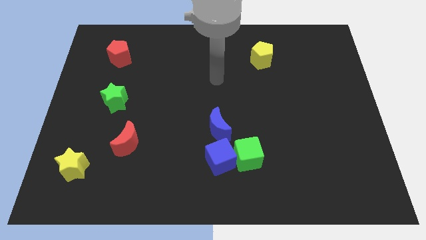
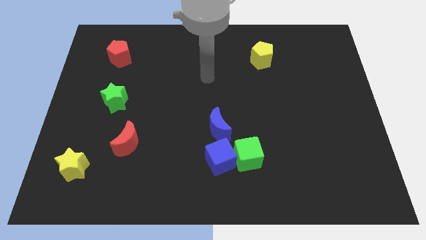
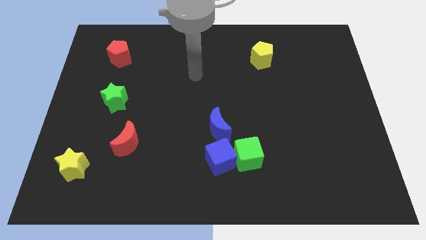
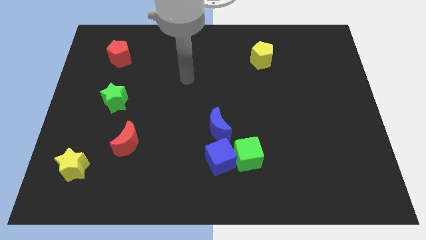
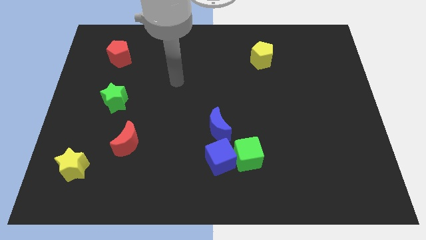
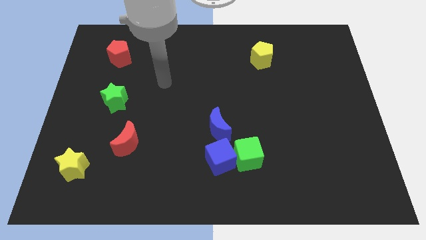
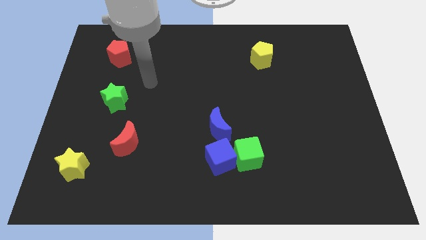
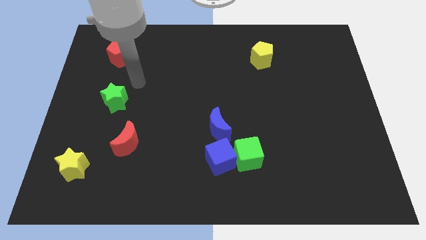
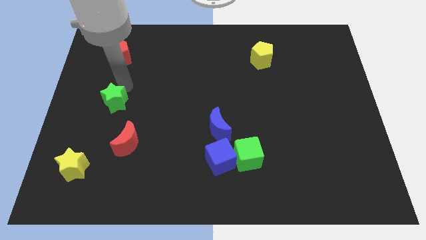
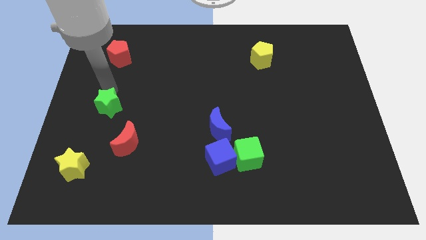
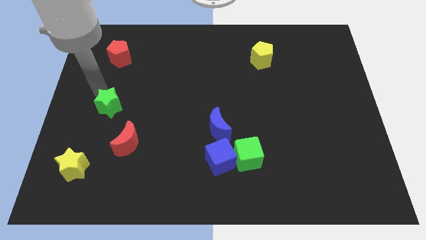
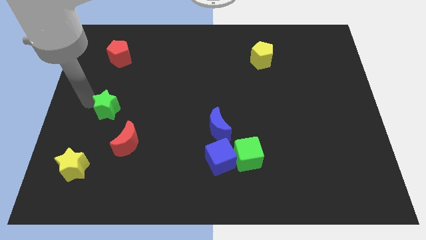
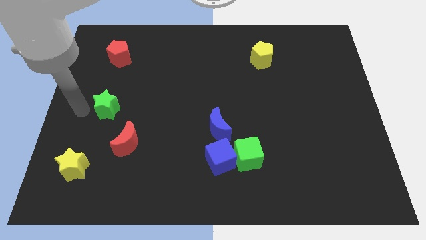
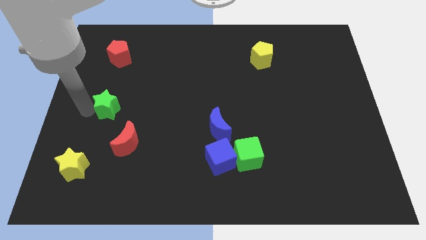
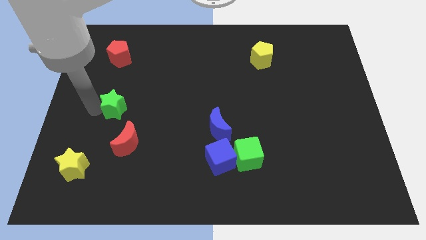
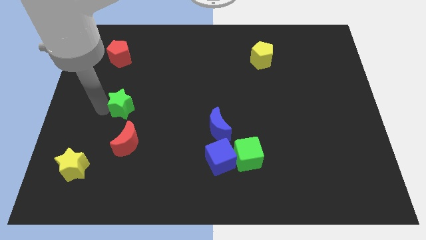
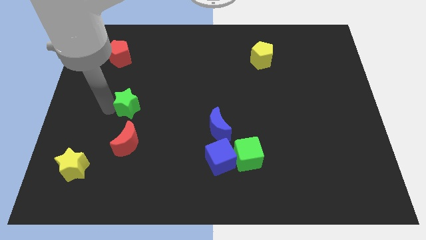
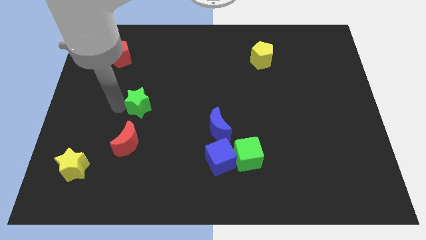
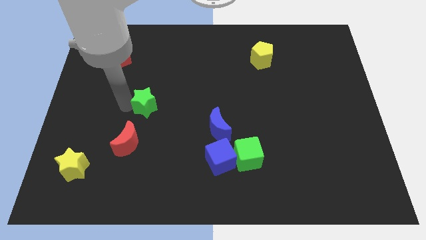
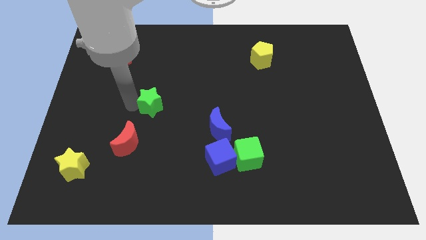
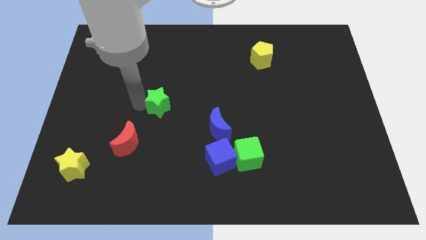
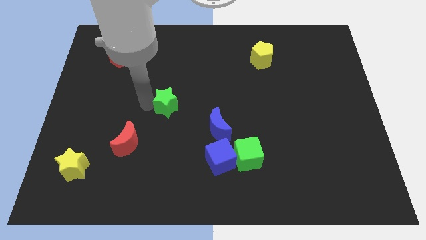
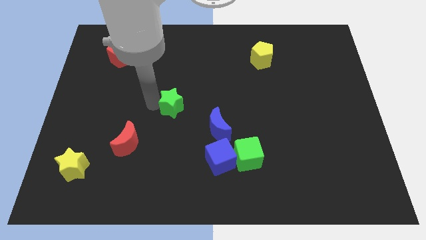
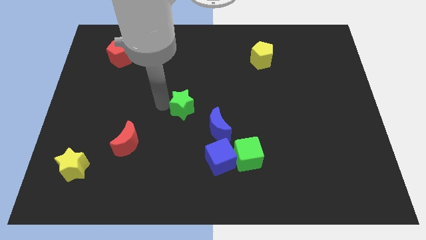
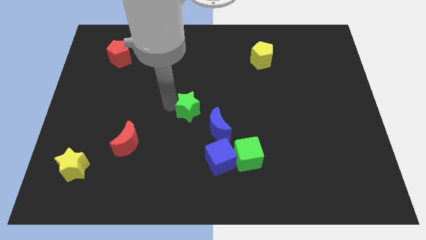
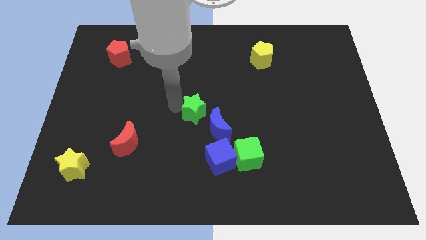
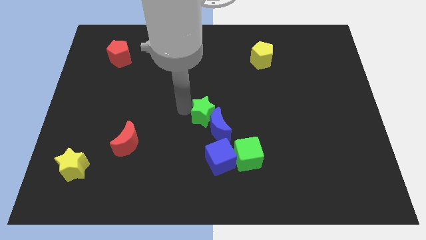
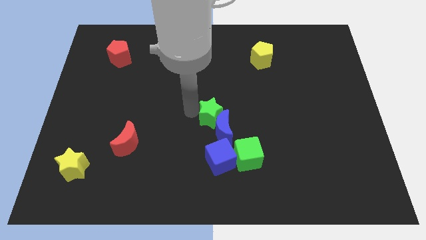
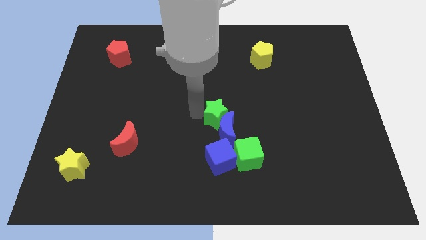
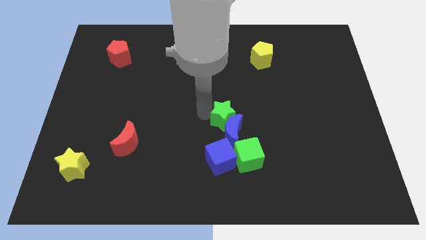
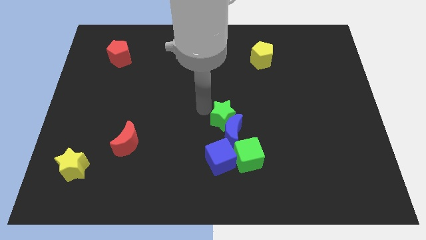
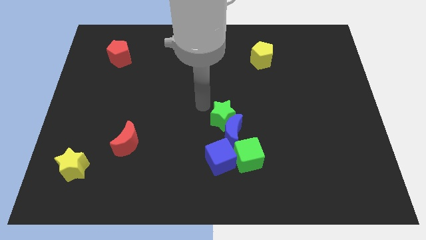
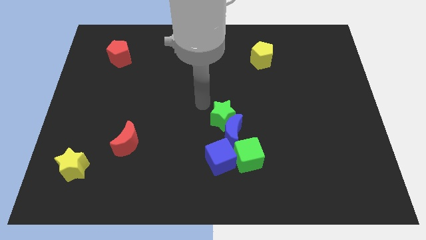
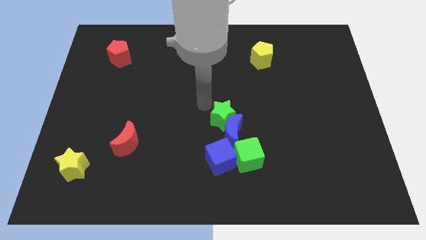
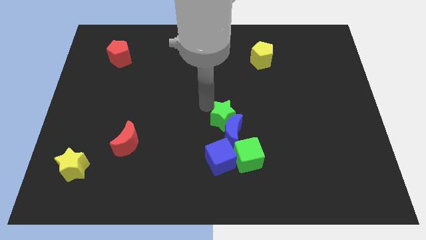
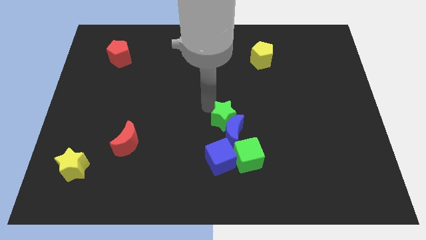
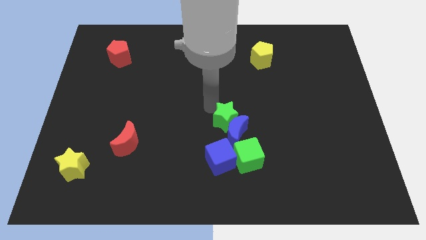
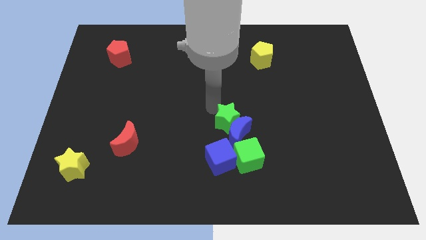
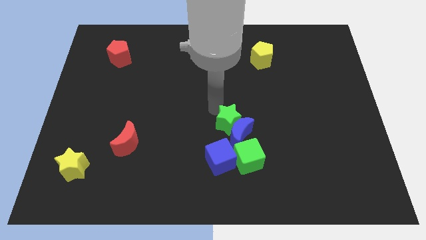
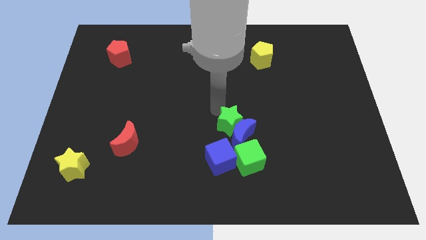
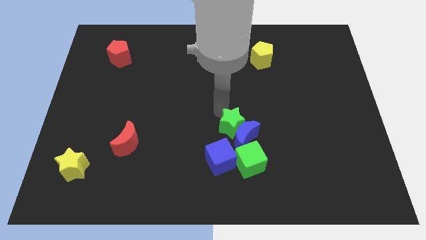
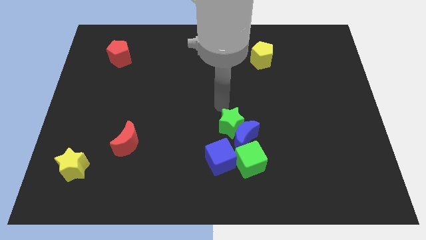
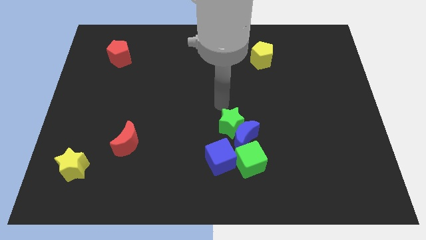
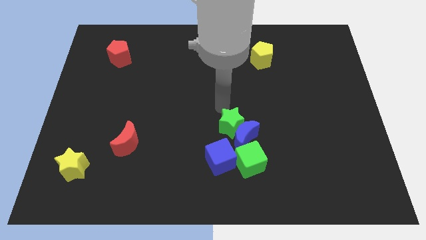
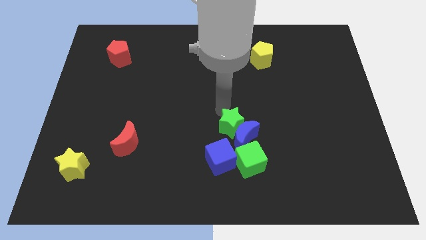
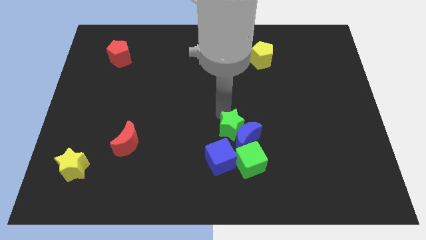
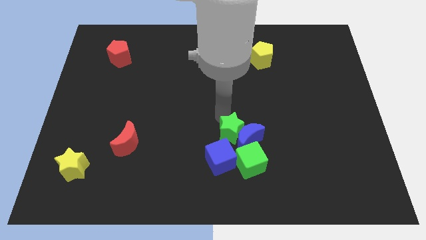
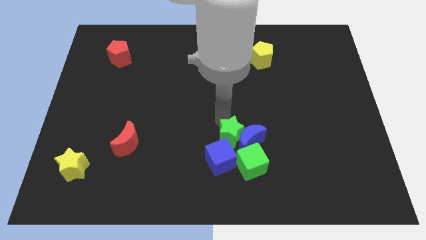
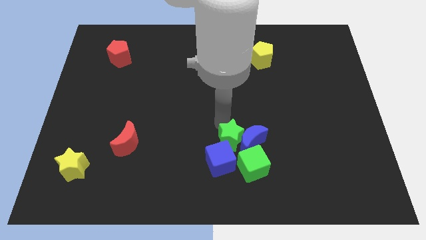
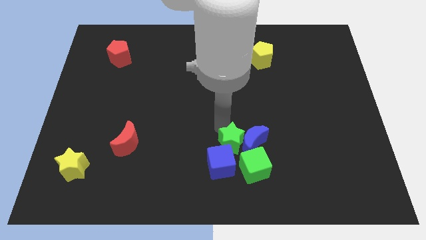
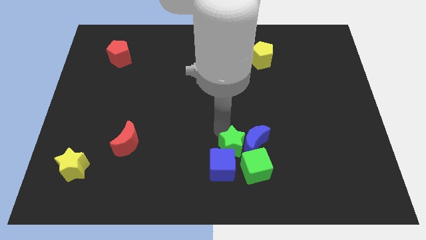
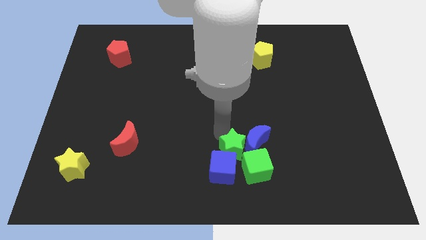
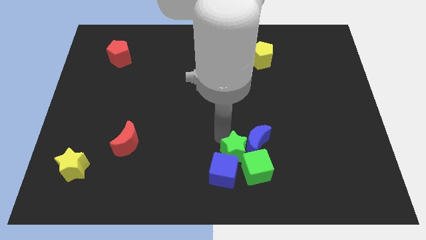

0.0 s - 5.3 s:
slide the green star to the green cube

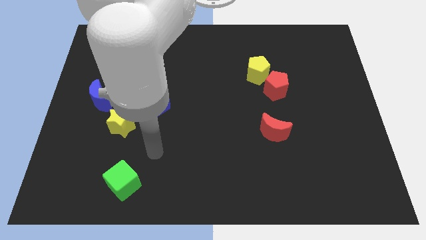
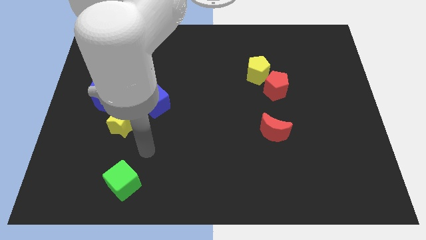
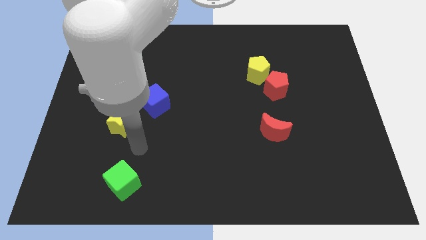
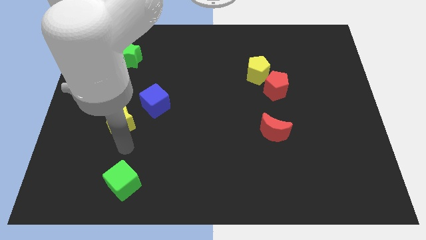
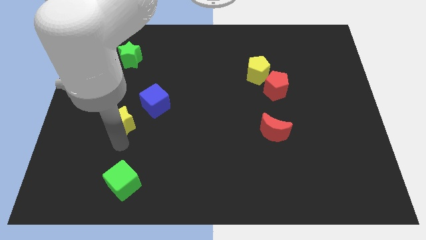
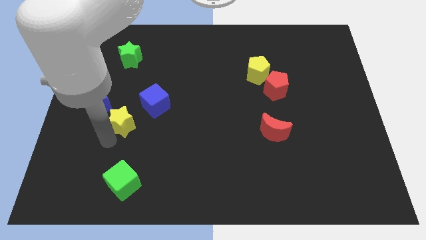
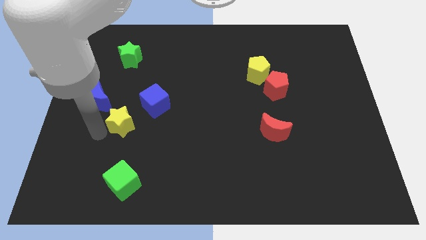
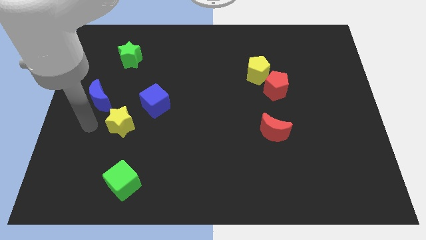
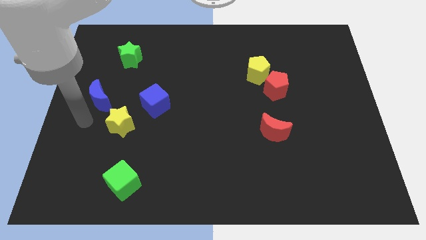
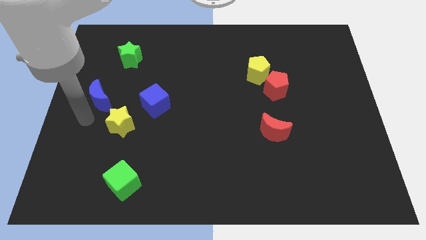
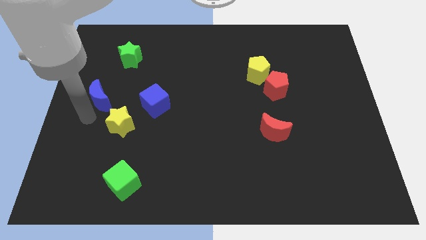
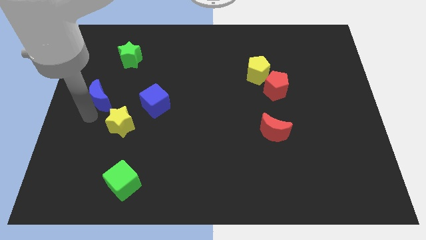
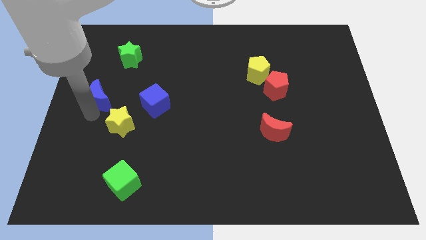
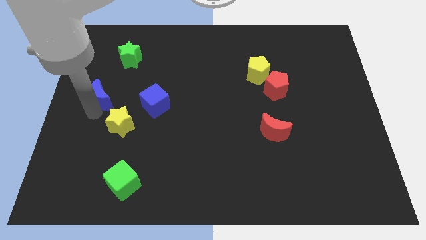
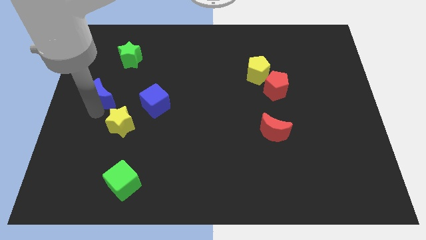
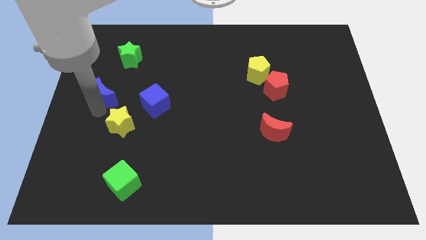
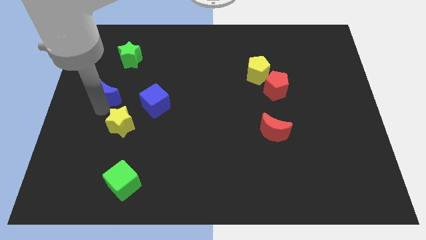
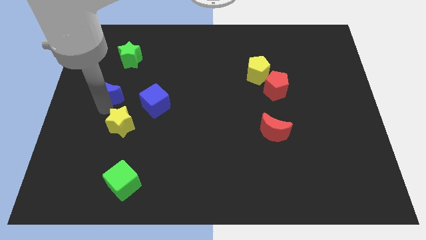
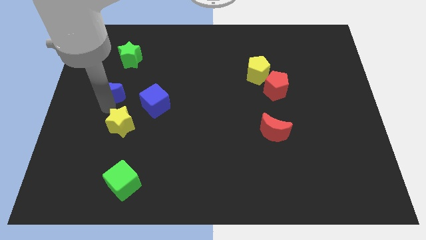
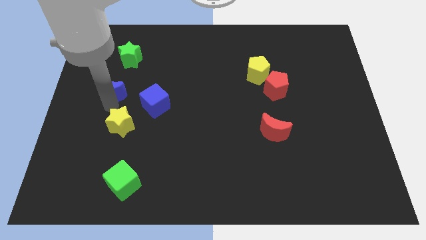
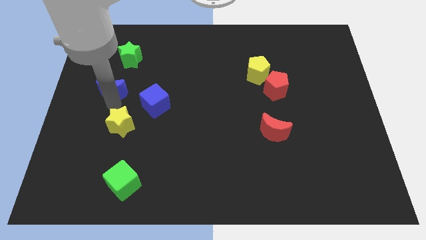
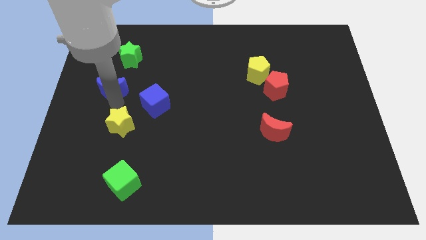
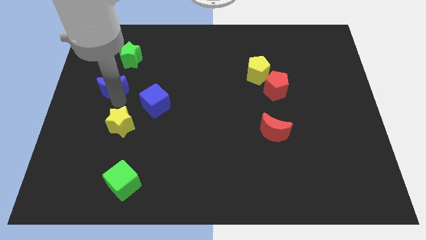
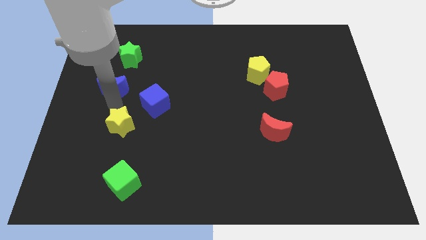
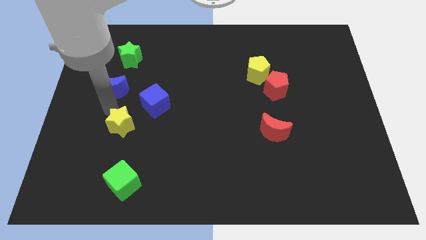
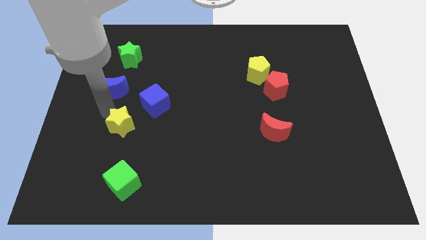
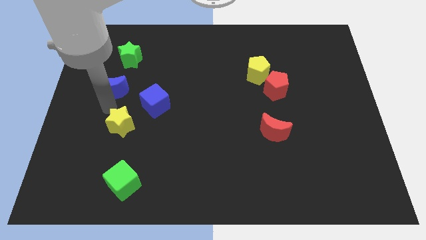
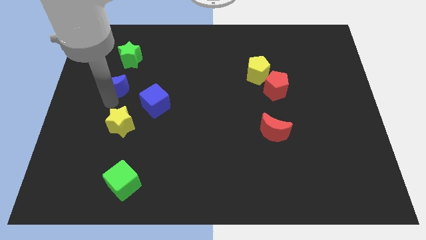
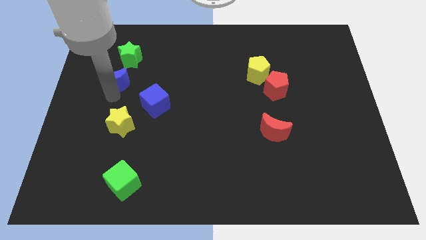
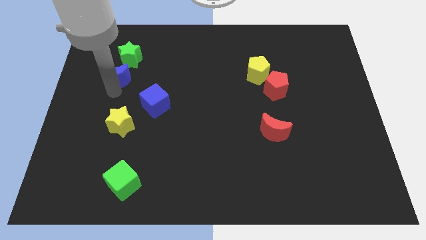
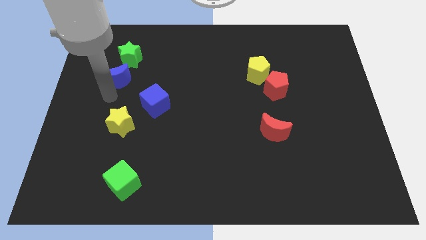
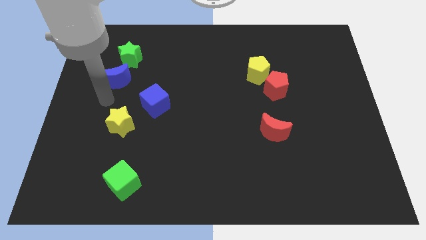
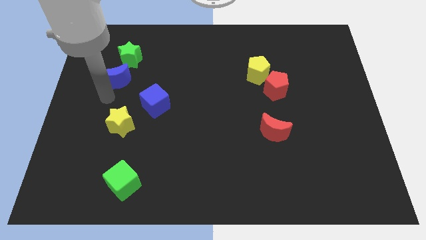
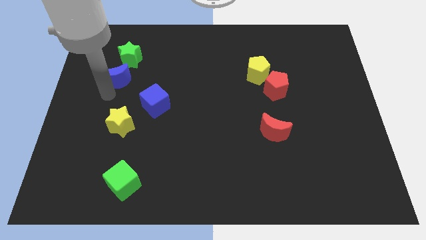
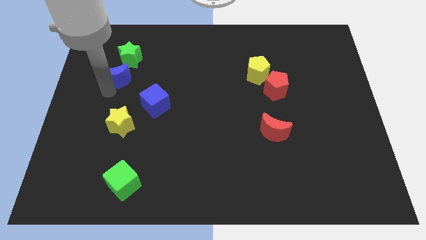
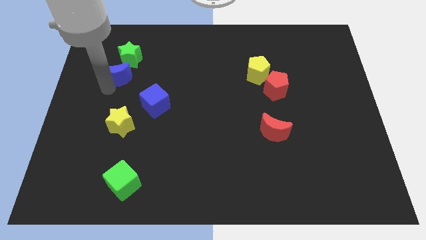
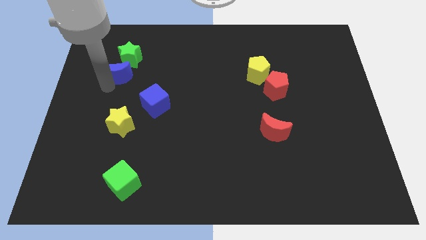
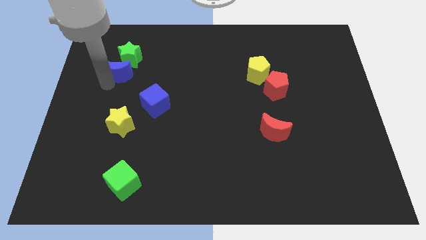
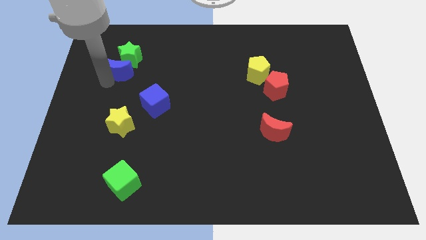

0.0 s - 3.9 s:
put the blue moon towards the green star
